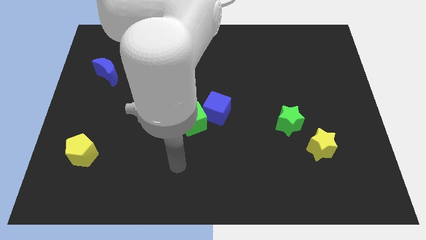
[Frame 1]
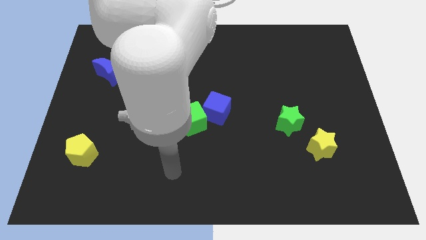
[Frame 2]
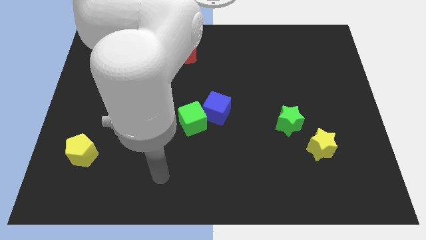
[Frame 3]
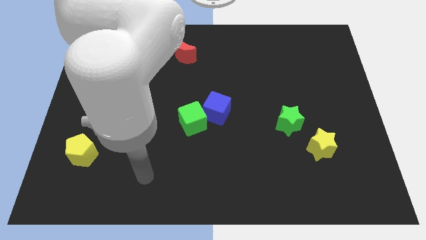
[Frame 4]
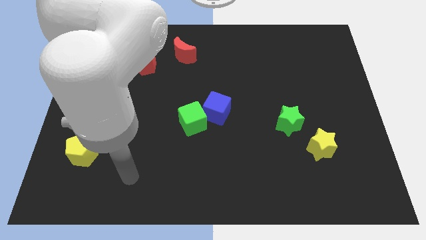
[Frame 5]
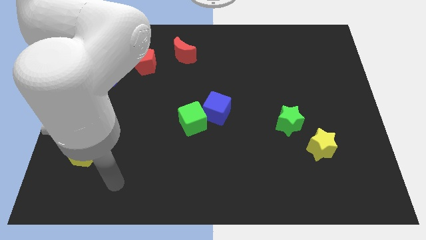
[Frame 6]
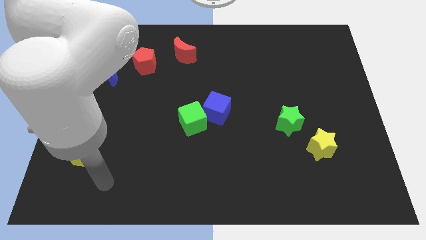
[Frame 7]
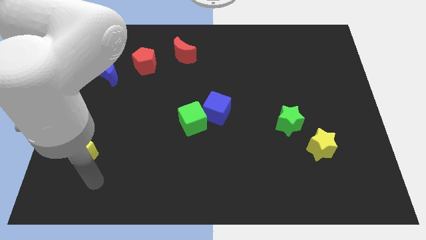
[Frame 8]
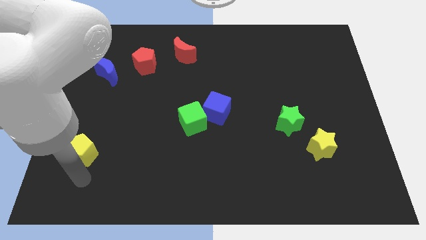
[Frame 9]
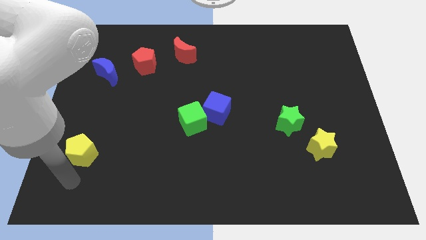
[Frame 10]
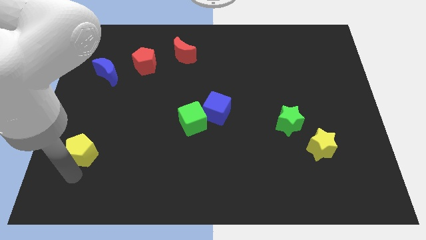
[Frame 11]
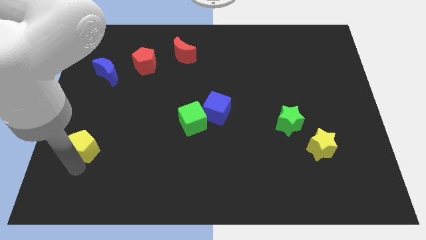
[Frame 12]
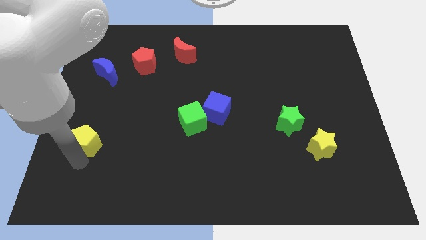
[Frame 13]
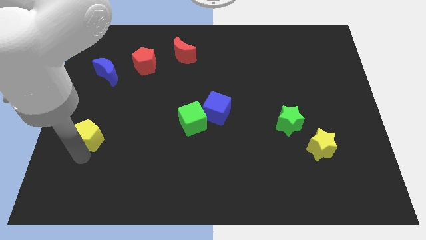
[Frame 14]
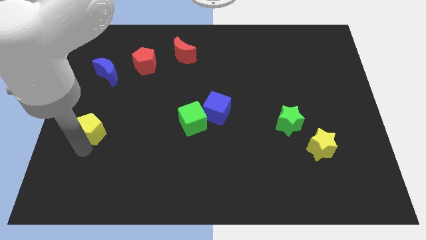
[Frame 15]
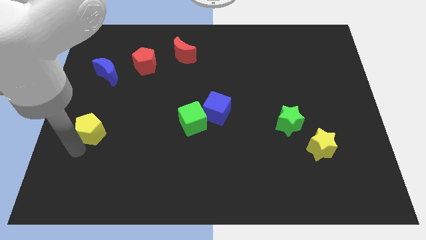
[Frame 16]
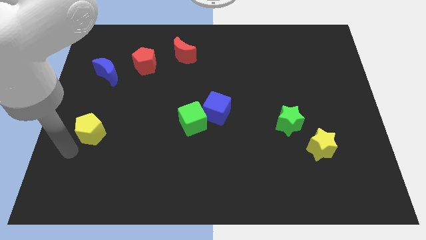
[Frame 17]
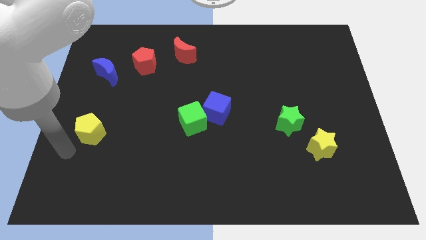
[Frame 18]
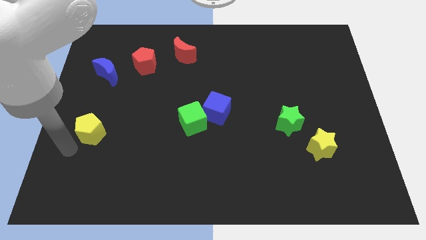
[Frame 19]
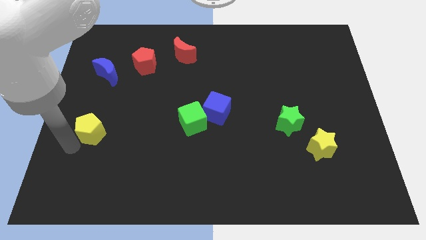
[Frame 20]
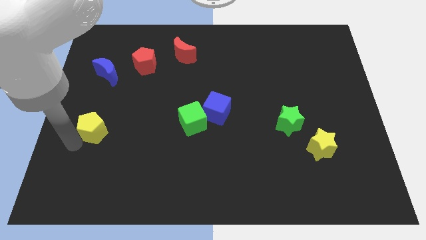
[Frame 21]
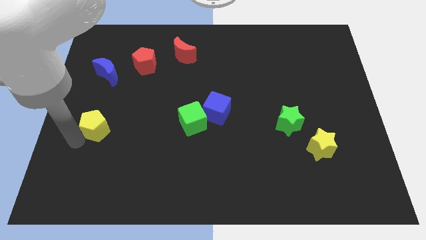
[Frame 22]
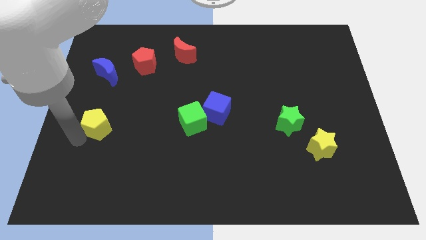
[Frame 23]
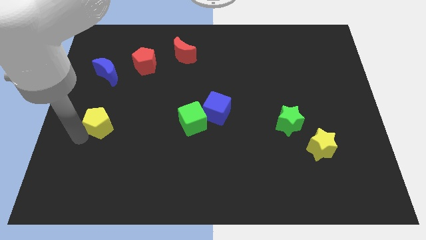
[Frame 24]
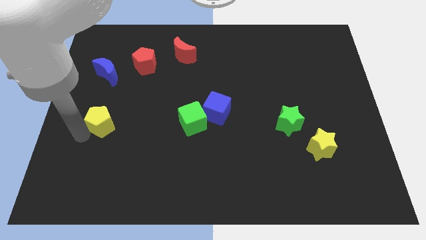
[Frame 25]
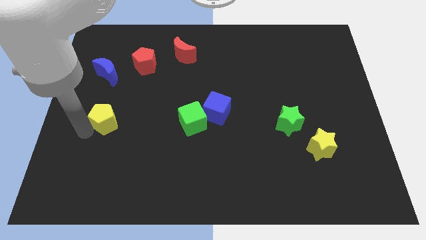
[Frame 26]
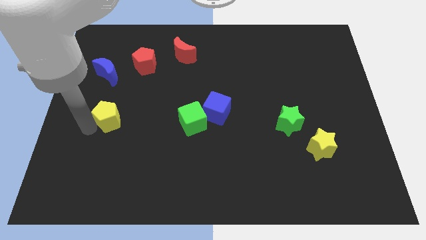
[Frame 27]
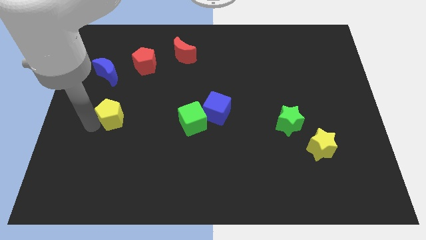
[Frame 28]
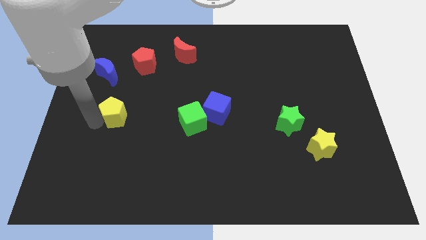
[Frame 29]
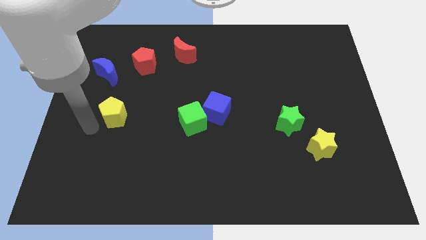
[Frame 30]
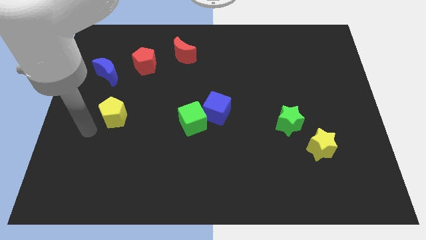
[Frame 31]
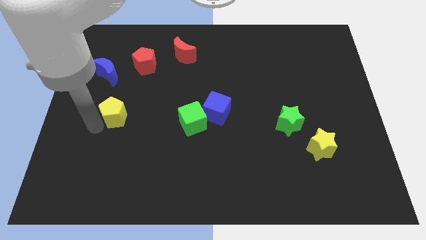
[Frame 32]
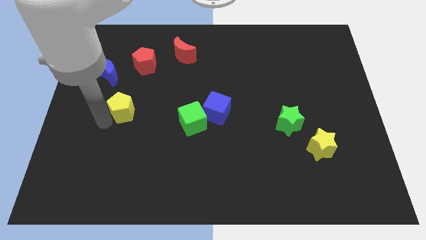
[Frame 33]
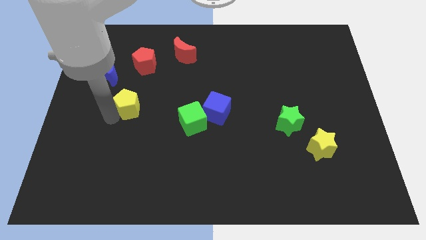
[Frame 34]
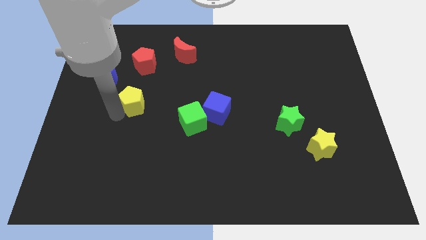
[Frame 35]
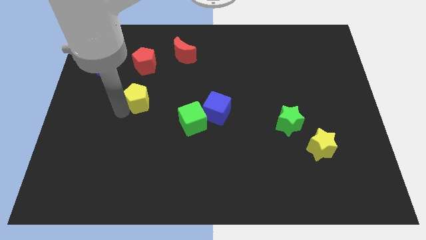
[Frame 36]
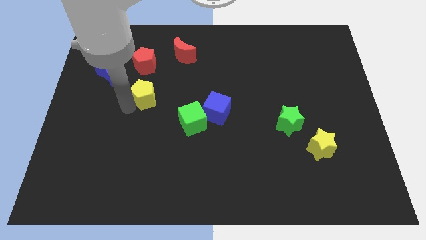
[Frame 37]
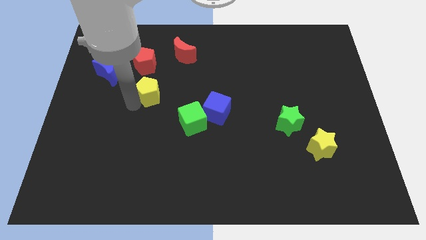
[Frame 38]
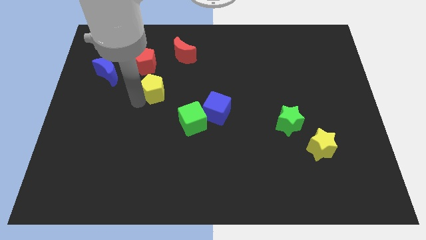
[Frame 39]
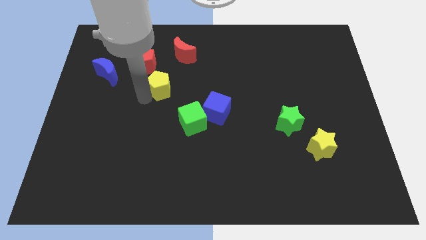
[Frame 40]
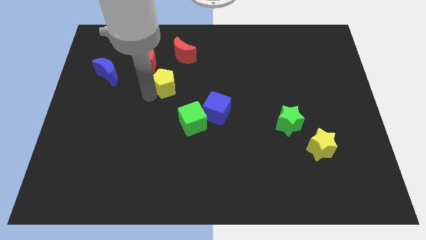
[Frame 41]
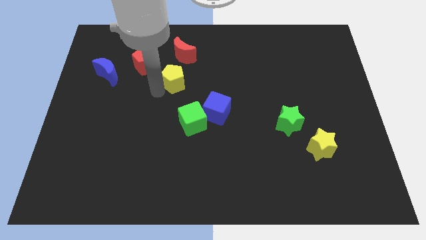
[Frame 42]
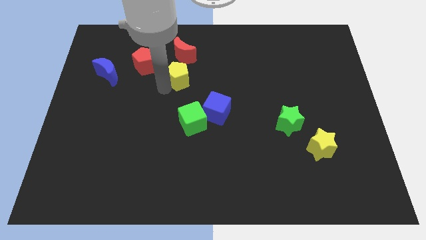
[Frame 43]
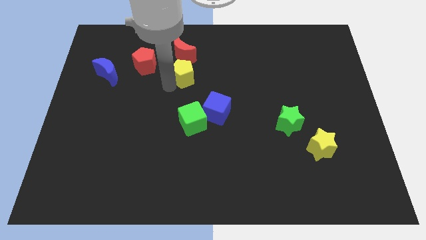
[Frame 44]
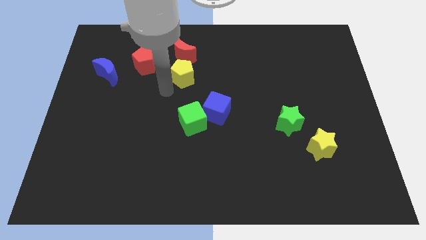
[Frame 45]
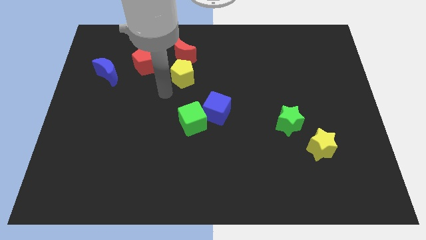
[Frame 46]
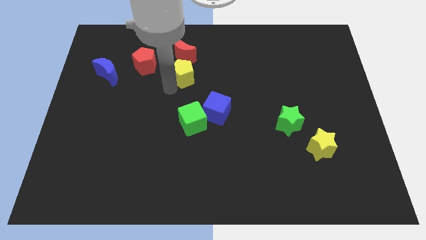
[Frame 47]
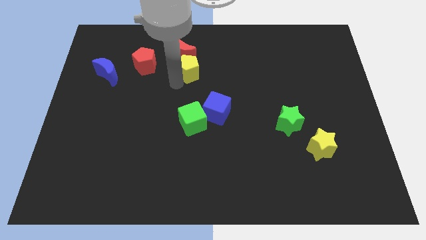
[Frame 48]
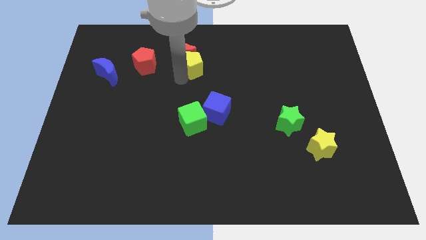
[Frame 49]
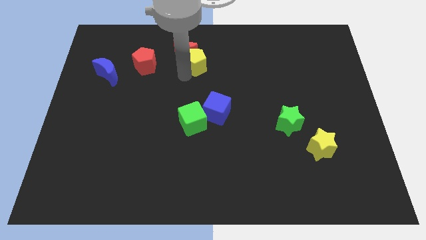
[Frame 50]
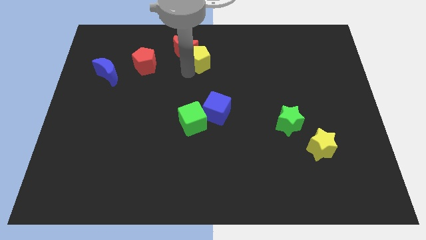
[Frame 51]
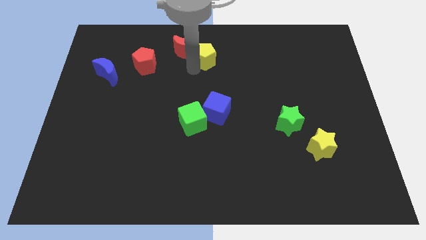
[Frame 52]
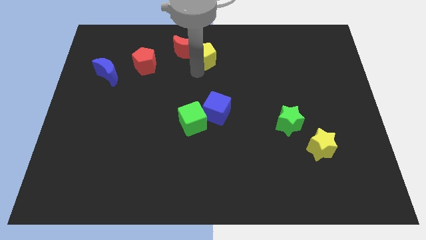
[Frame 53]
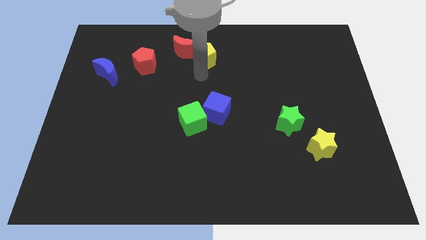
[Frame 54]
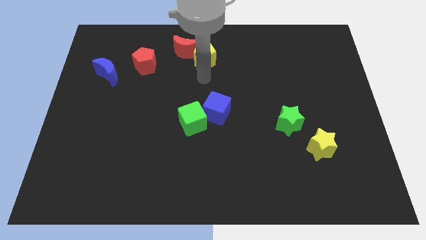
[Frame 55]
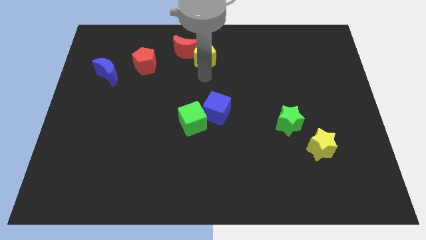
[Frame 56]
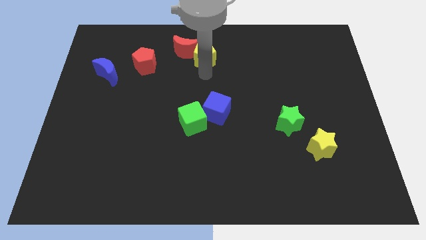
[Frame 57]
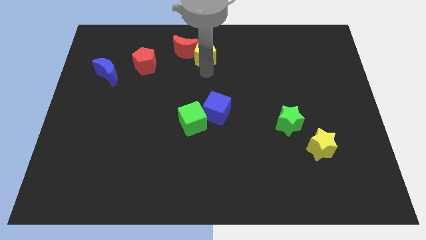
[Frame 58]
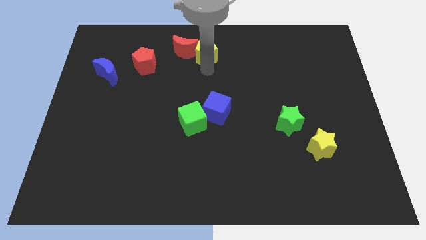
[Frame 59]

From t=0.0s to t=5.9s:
put the yellow pentagon to the top side
